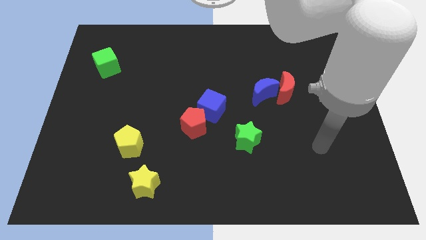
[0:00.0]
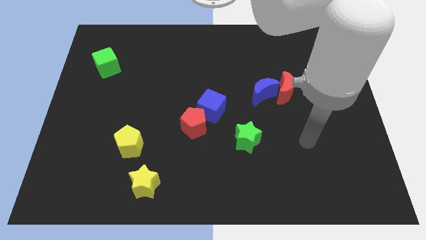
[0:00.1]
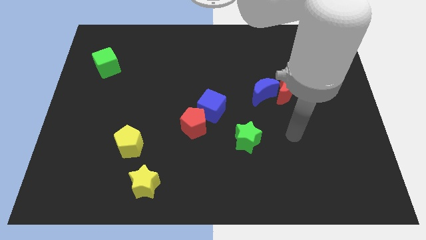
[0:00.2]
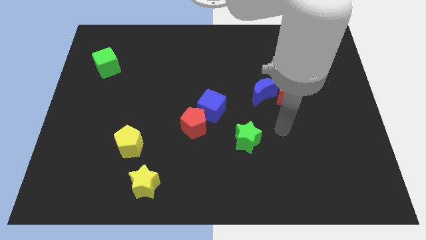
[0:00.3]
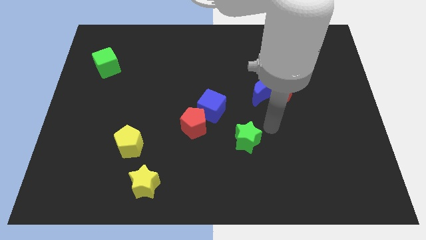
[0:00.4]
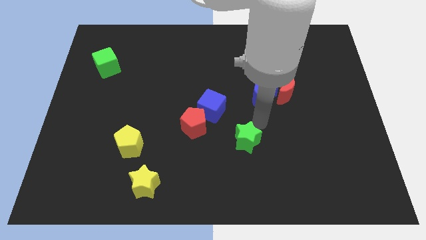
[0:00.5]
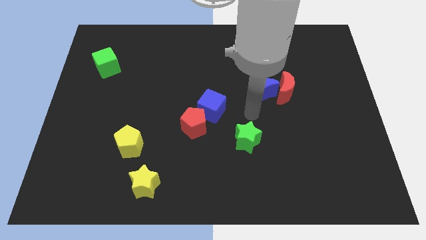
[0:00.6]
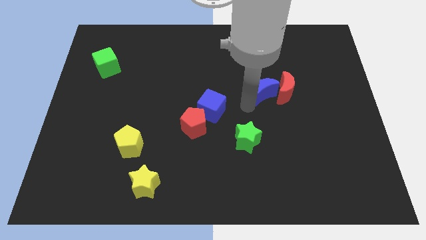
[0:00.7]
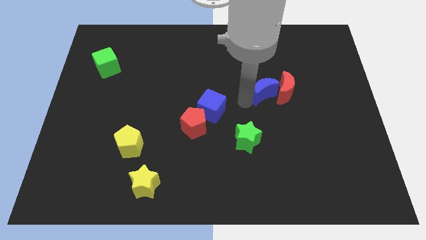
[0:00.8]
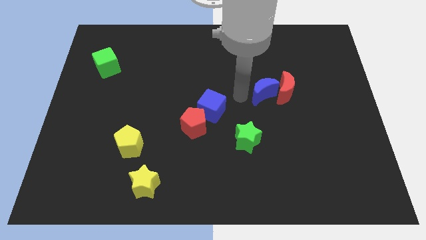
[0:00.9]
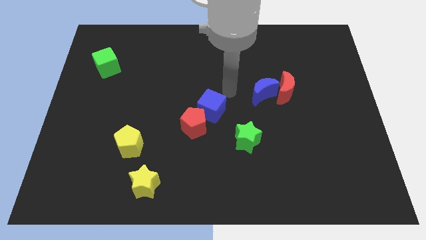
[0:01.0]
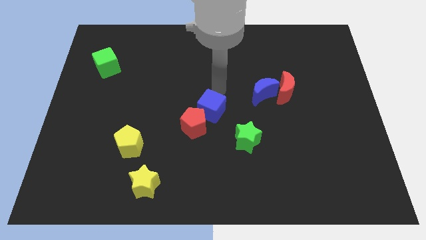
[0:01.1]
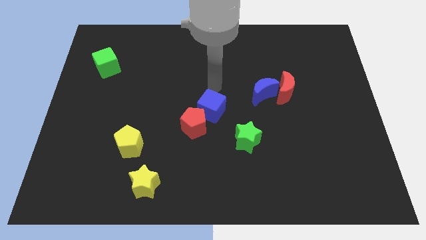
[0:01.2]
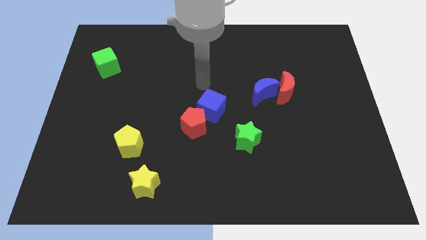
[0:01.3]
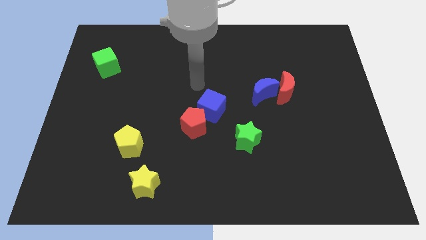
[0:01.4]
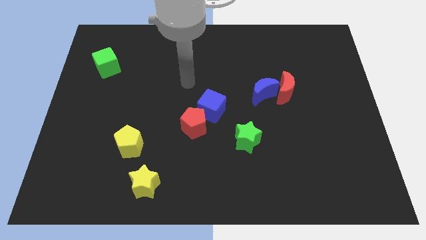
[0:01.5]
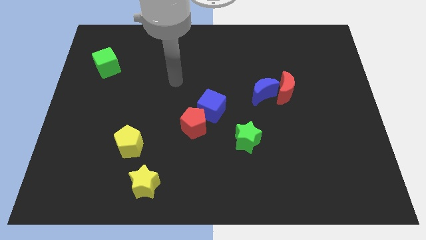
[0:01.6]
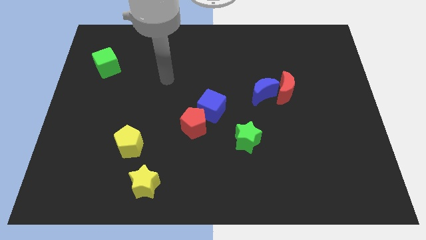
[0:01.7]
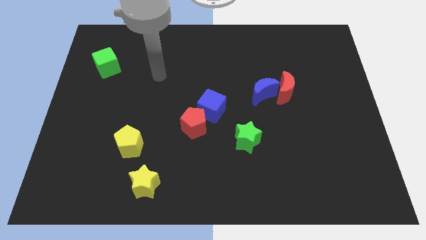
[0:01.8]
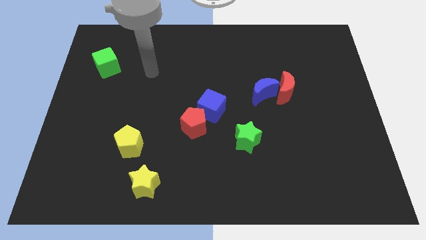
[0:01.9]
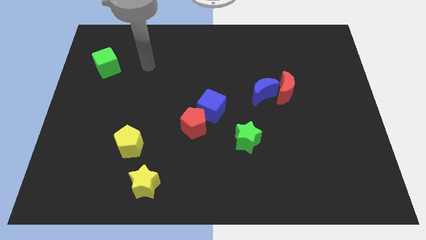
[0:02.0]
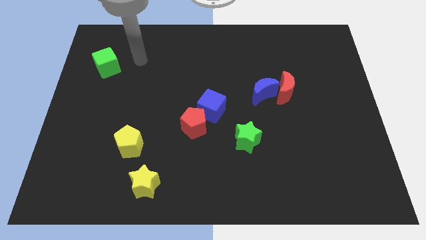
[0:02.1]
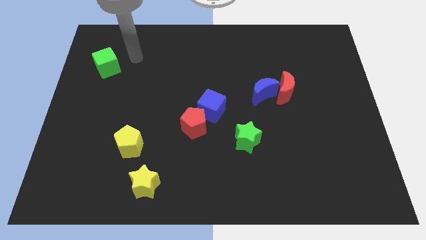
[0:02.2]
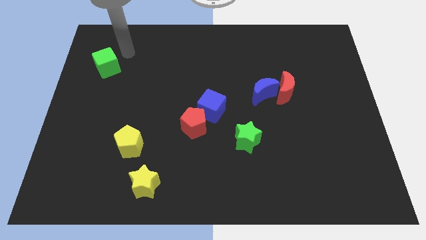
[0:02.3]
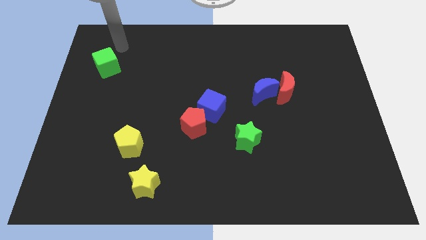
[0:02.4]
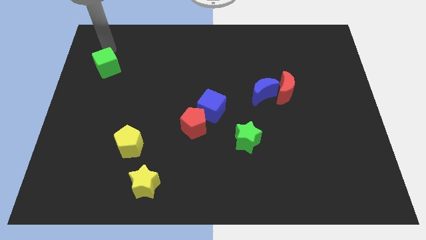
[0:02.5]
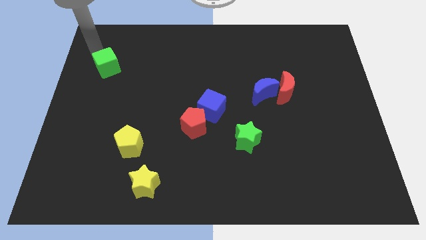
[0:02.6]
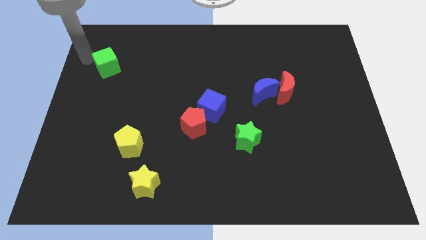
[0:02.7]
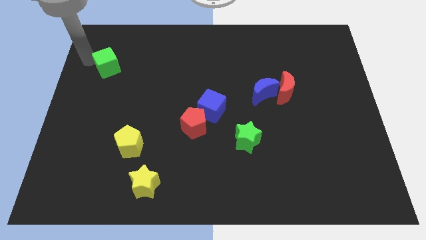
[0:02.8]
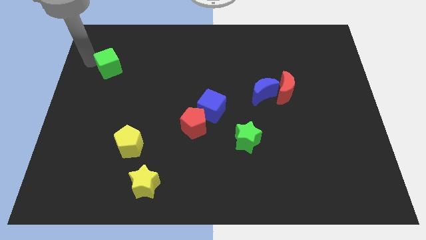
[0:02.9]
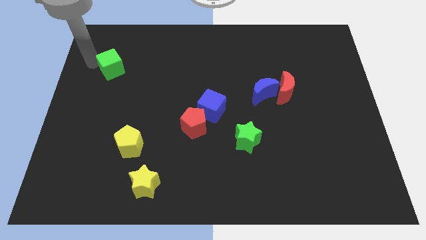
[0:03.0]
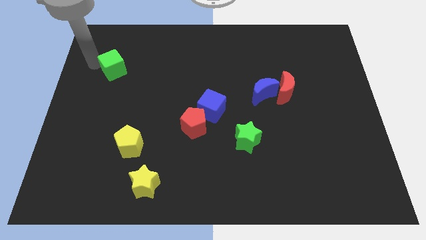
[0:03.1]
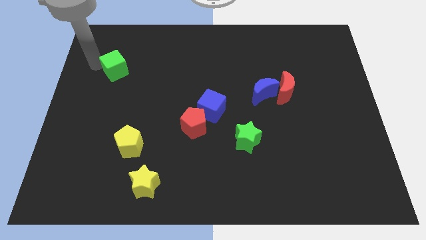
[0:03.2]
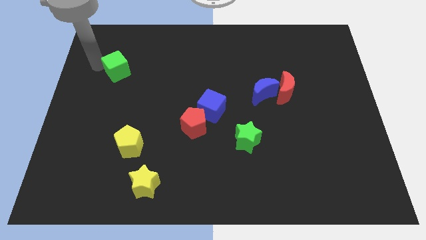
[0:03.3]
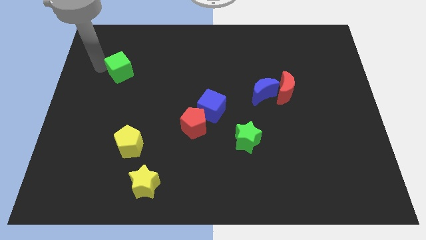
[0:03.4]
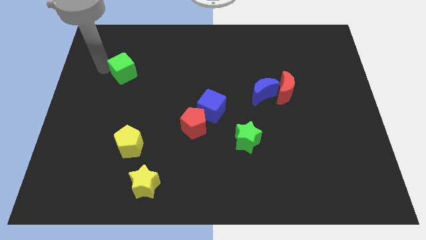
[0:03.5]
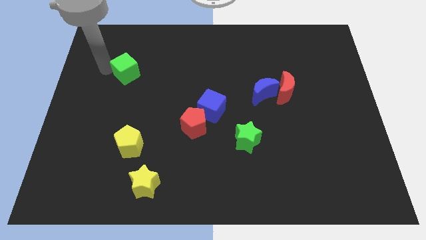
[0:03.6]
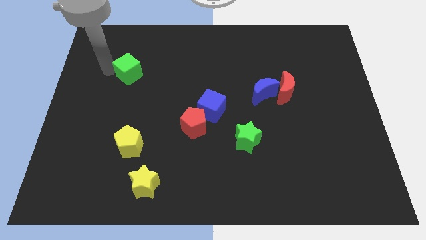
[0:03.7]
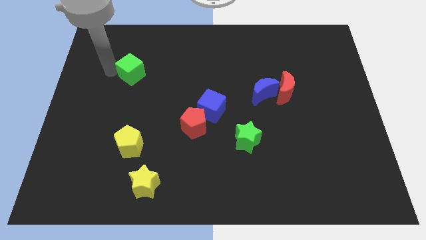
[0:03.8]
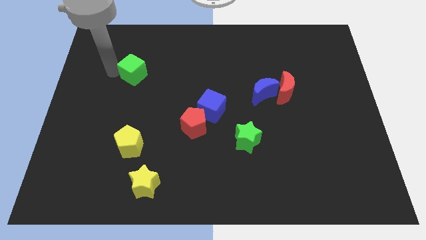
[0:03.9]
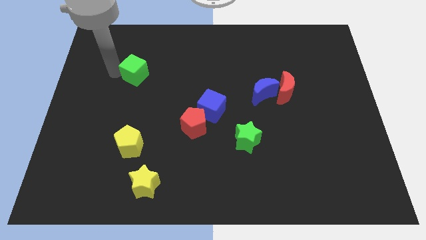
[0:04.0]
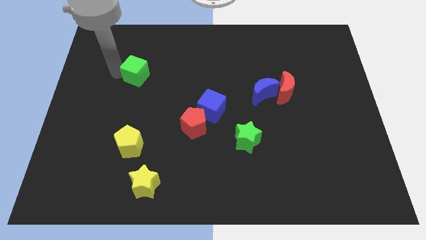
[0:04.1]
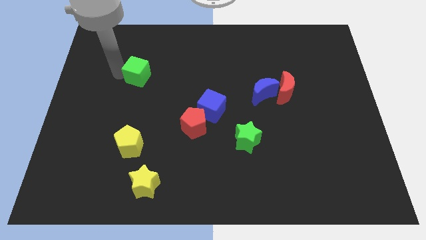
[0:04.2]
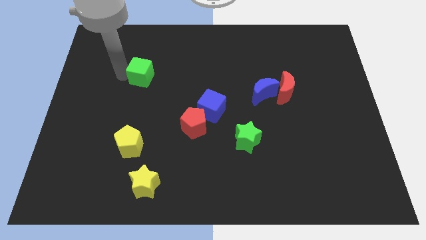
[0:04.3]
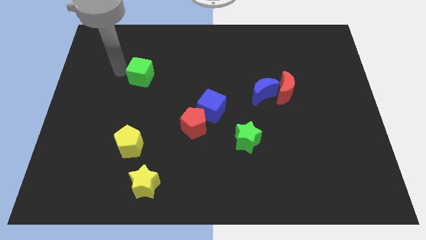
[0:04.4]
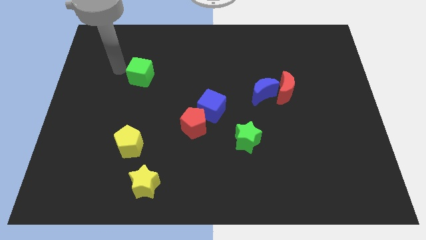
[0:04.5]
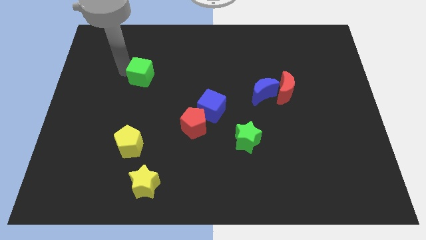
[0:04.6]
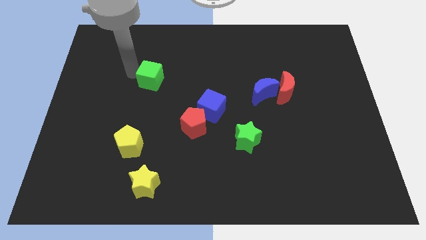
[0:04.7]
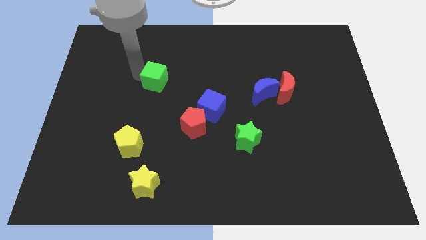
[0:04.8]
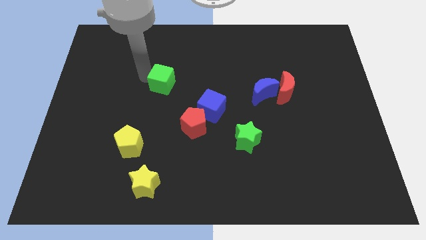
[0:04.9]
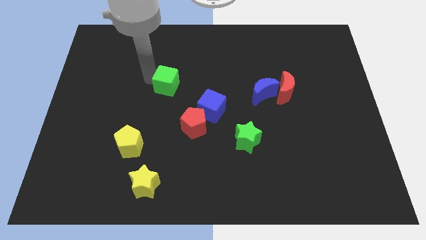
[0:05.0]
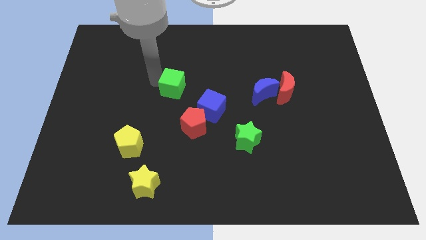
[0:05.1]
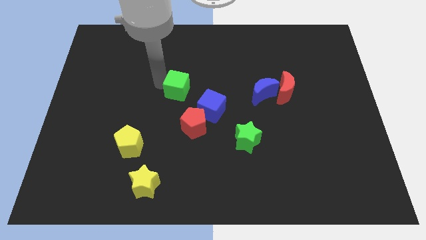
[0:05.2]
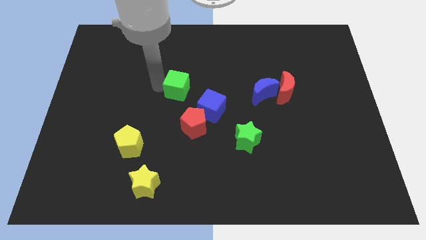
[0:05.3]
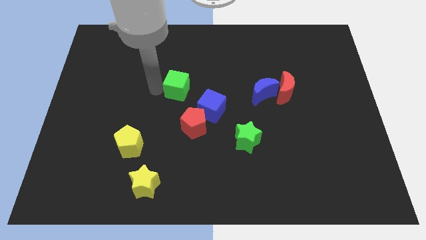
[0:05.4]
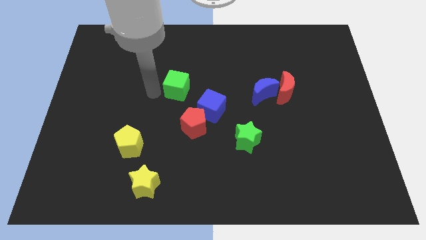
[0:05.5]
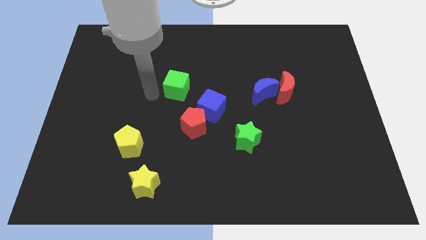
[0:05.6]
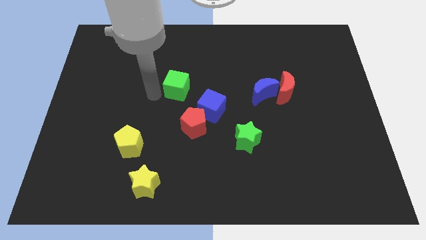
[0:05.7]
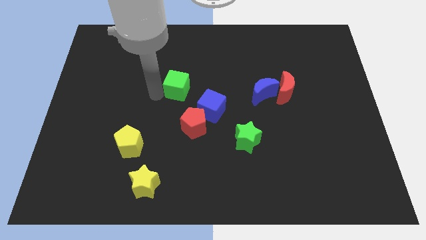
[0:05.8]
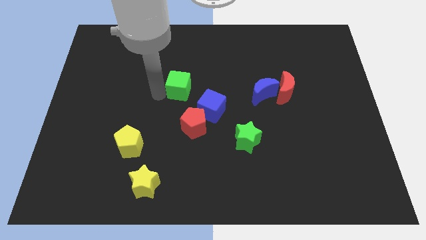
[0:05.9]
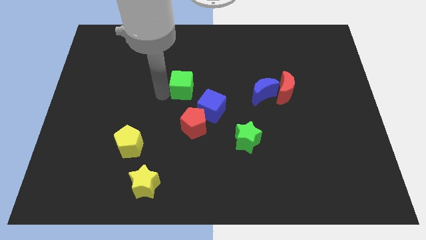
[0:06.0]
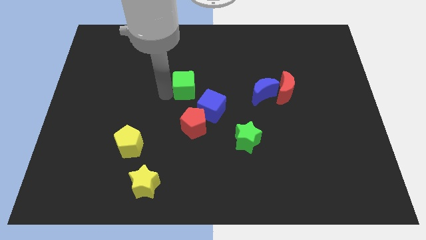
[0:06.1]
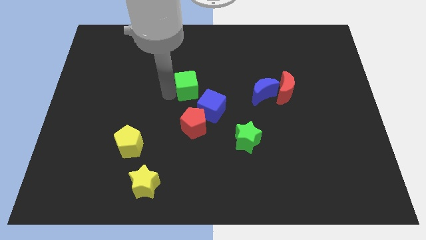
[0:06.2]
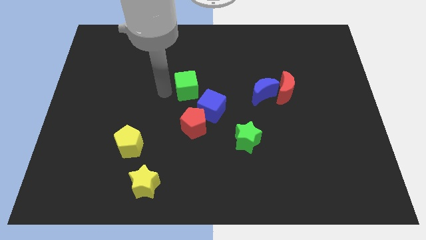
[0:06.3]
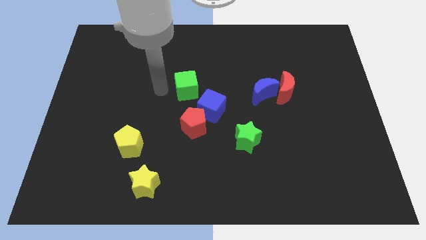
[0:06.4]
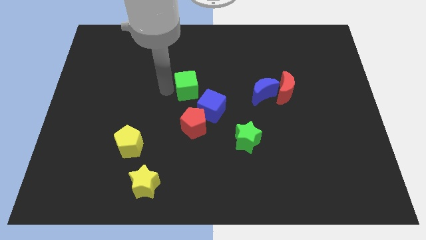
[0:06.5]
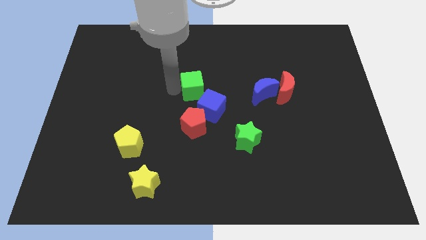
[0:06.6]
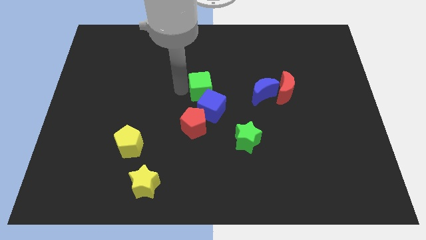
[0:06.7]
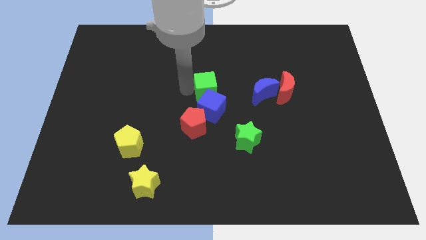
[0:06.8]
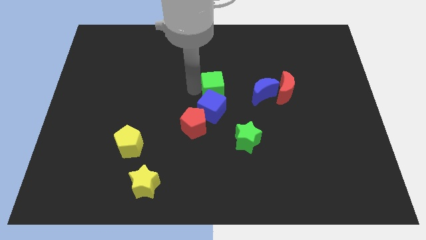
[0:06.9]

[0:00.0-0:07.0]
push the green cube to the top right of the blue cube

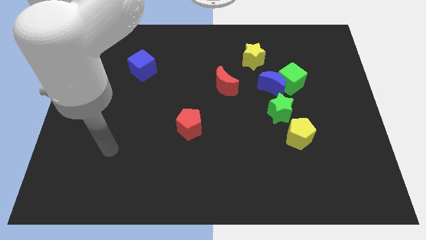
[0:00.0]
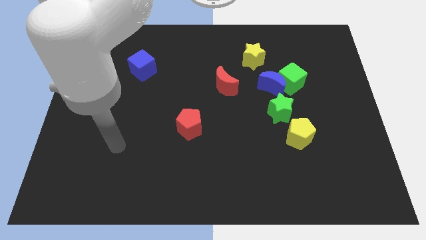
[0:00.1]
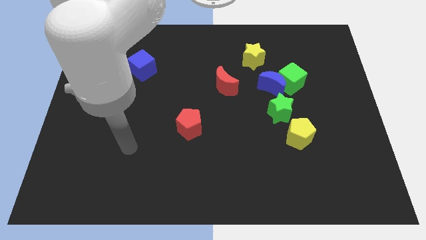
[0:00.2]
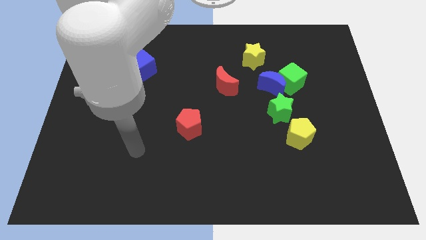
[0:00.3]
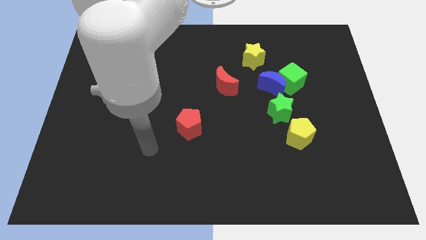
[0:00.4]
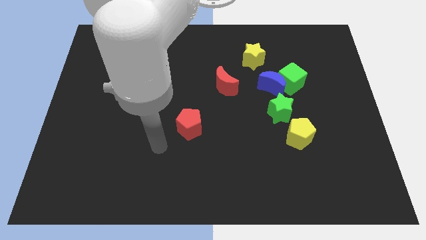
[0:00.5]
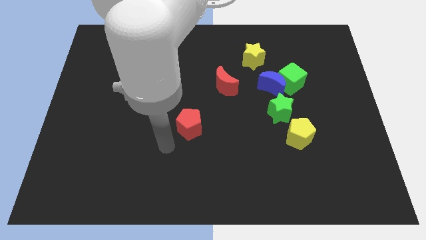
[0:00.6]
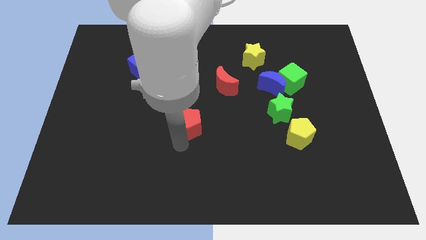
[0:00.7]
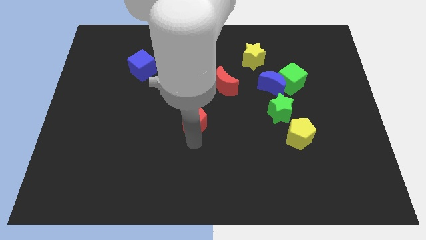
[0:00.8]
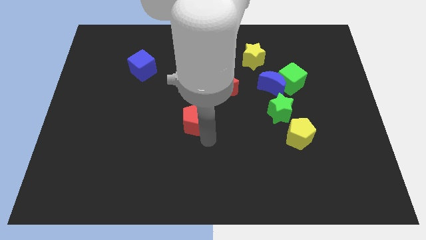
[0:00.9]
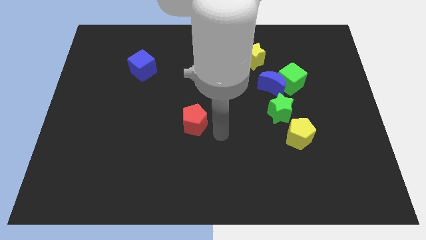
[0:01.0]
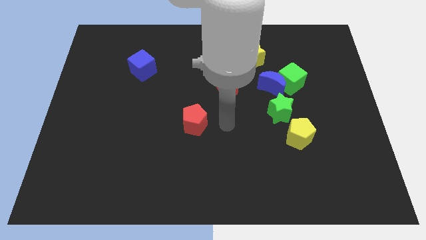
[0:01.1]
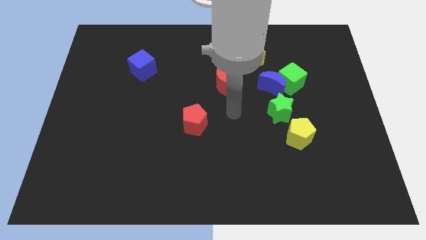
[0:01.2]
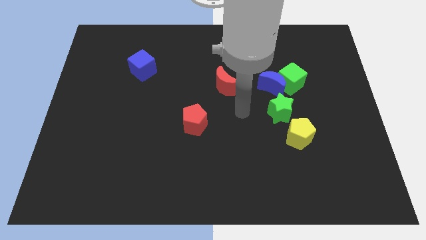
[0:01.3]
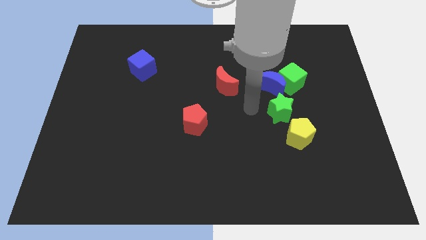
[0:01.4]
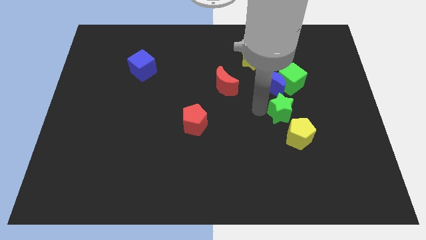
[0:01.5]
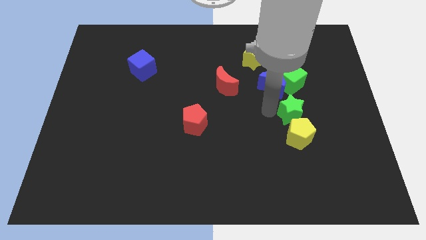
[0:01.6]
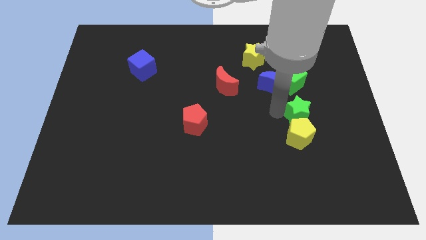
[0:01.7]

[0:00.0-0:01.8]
push the green star diagonally up and to the right of the yellow pentagon
